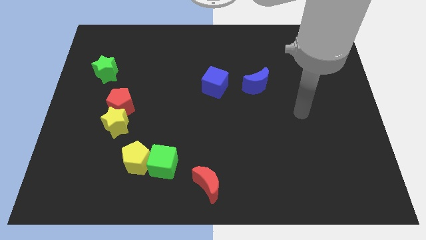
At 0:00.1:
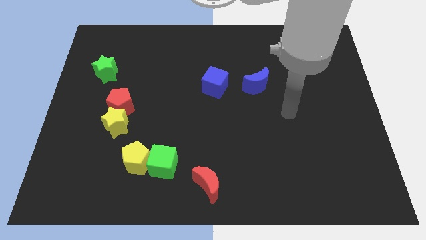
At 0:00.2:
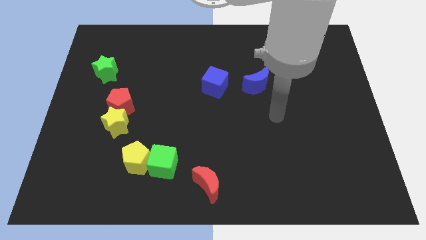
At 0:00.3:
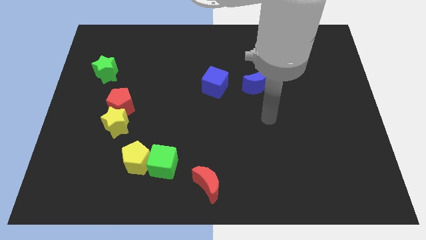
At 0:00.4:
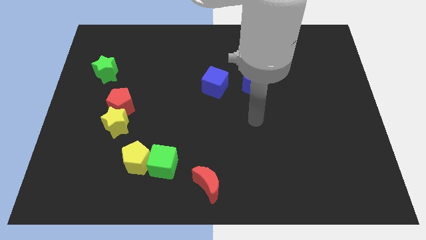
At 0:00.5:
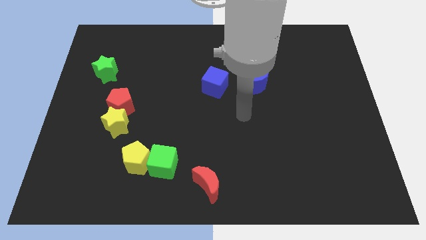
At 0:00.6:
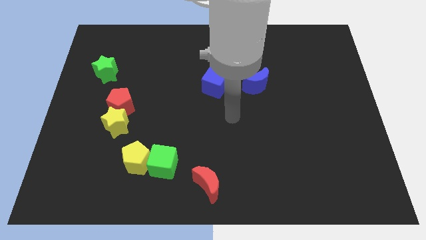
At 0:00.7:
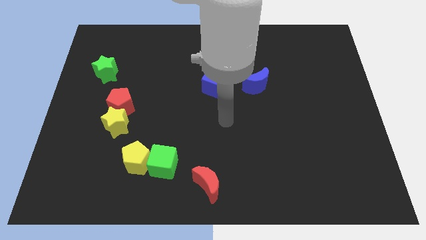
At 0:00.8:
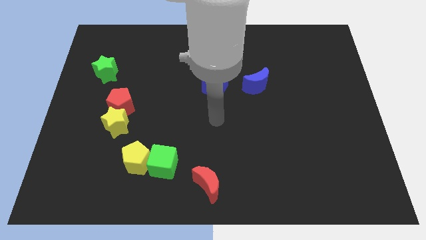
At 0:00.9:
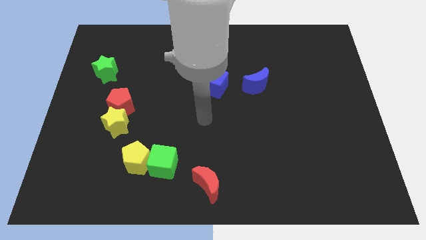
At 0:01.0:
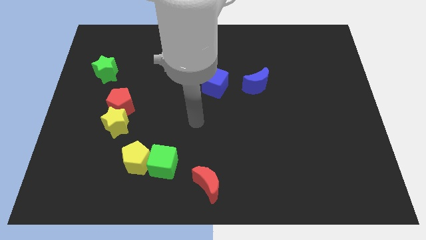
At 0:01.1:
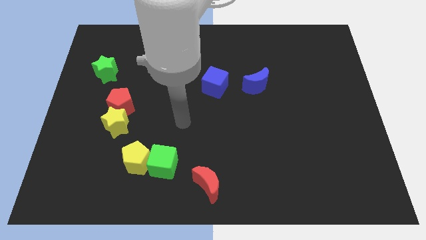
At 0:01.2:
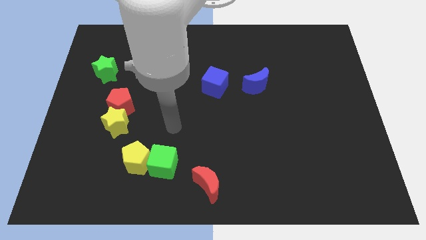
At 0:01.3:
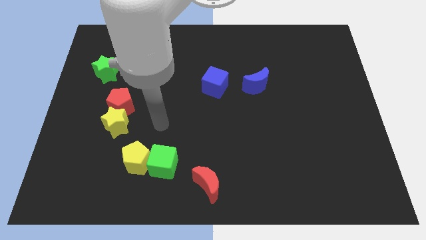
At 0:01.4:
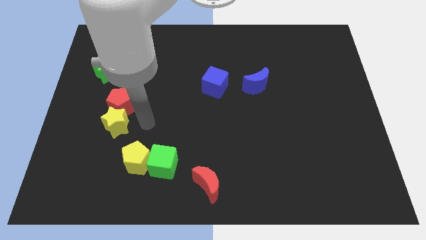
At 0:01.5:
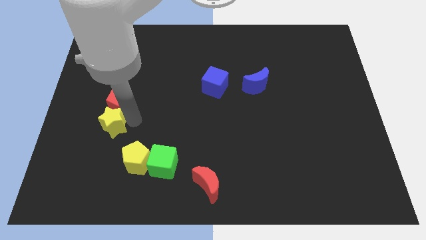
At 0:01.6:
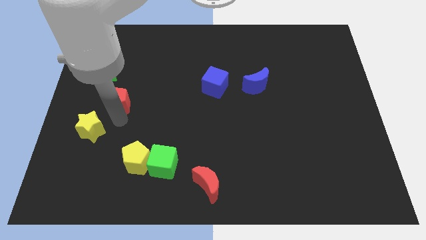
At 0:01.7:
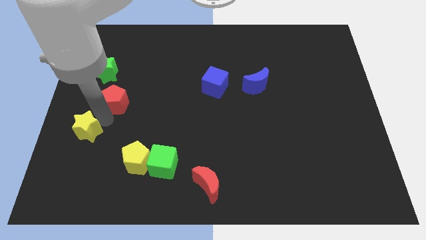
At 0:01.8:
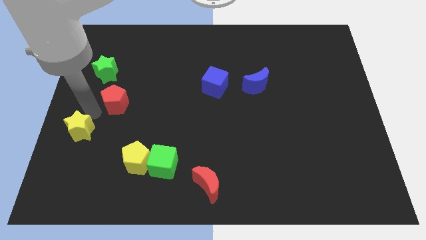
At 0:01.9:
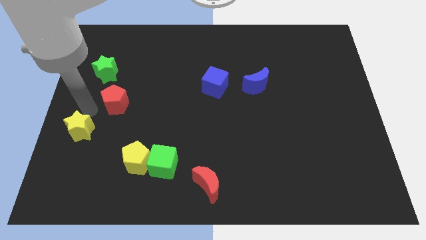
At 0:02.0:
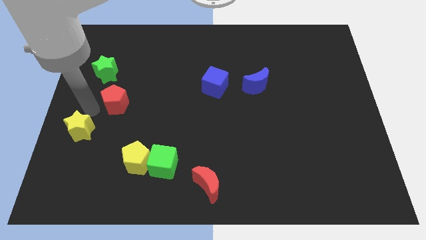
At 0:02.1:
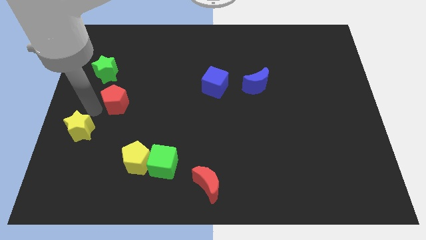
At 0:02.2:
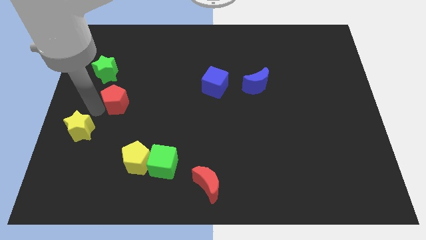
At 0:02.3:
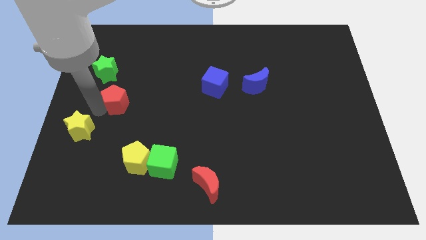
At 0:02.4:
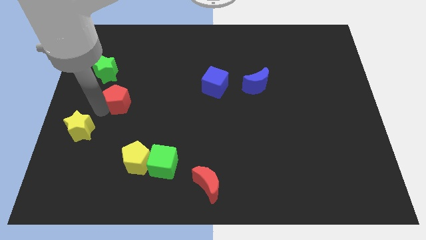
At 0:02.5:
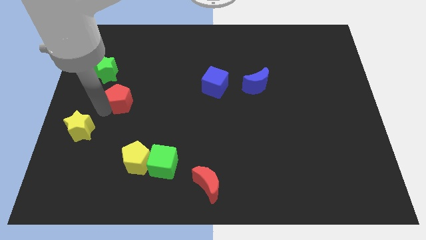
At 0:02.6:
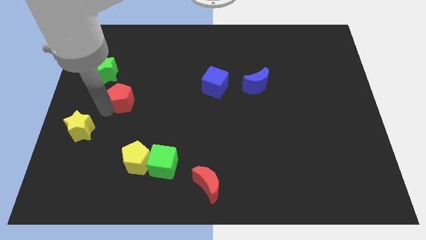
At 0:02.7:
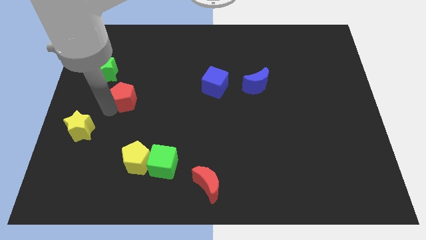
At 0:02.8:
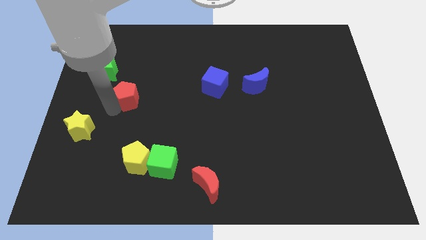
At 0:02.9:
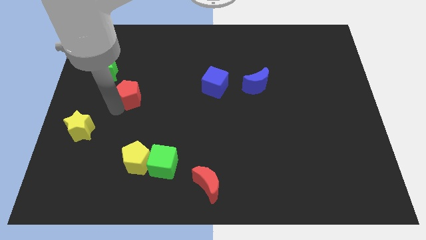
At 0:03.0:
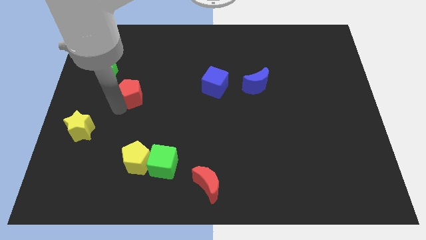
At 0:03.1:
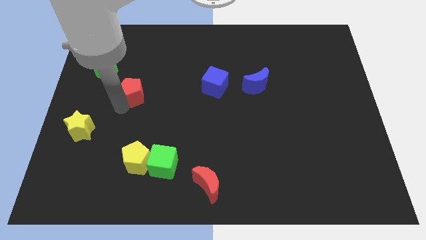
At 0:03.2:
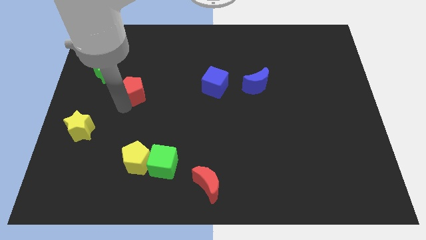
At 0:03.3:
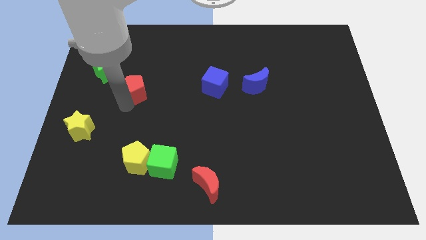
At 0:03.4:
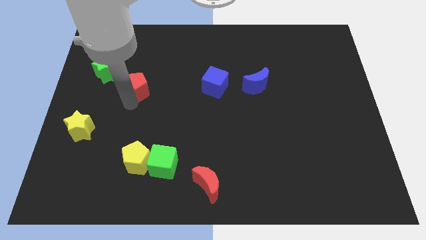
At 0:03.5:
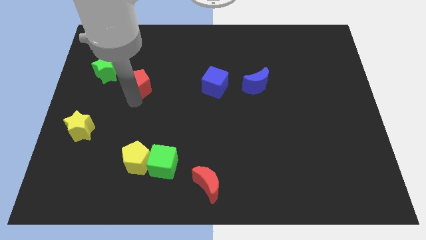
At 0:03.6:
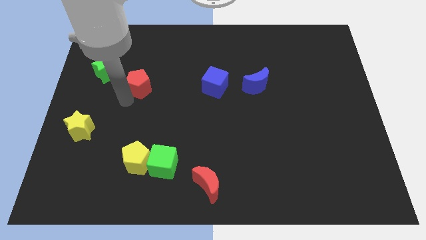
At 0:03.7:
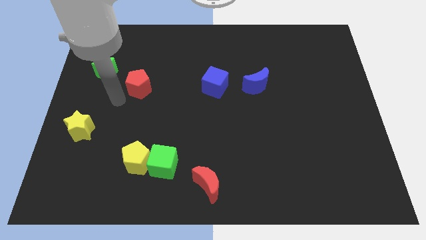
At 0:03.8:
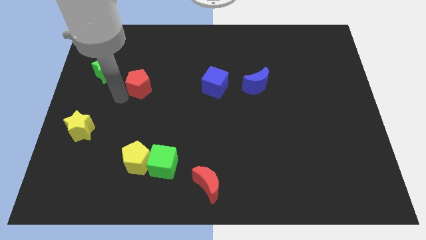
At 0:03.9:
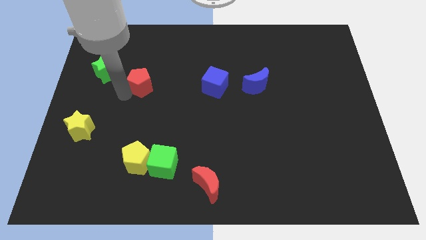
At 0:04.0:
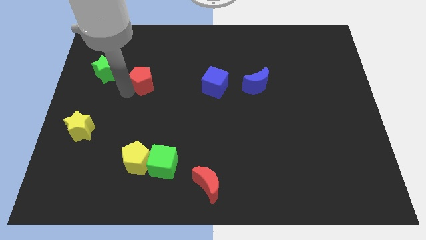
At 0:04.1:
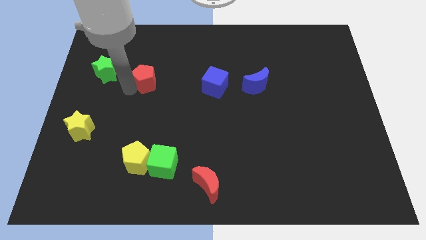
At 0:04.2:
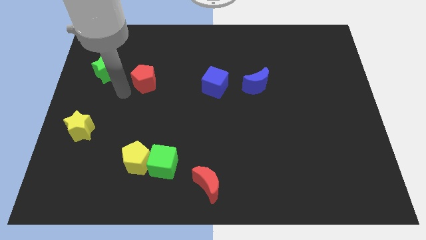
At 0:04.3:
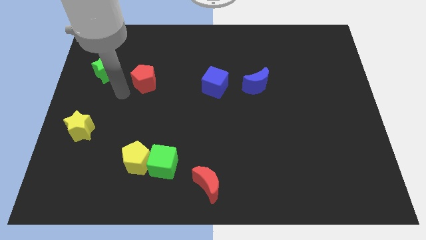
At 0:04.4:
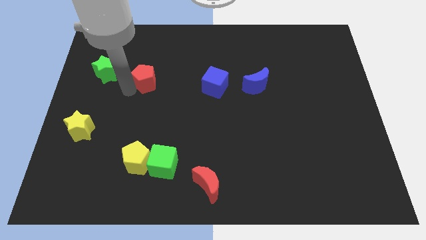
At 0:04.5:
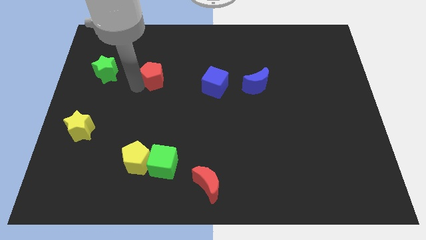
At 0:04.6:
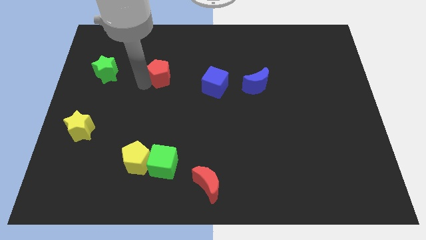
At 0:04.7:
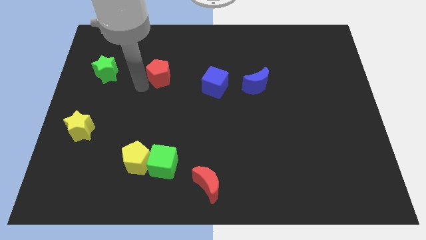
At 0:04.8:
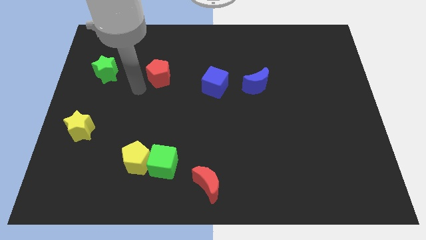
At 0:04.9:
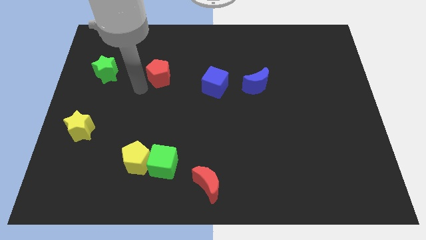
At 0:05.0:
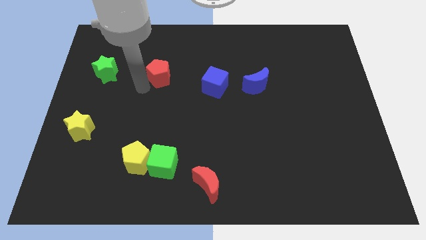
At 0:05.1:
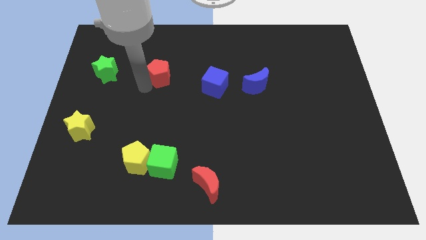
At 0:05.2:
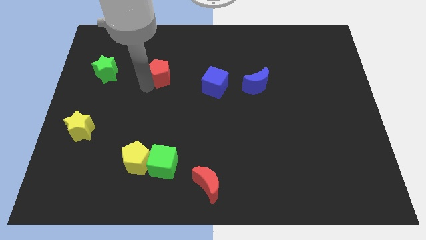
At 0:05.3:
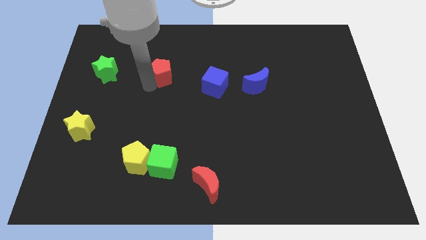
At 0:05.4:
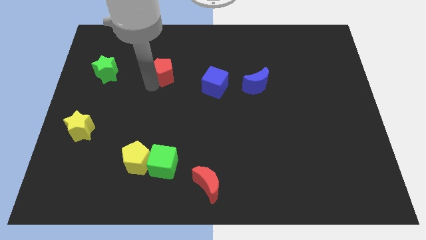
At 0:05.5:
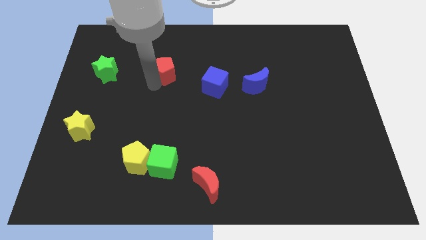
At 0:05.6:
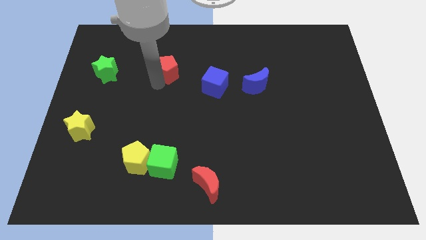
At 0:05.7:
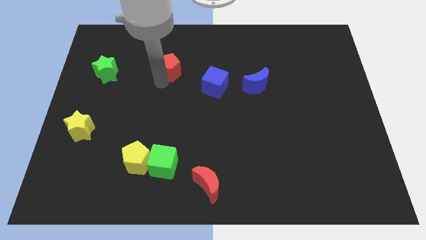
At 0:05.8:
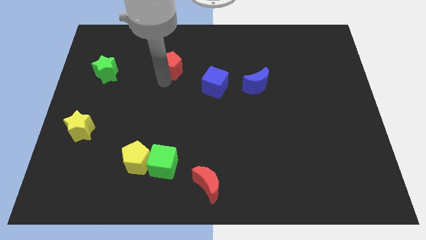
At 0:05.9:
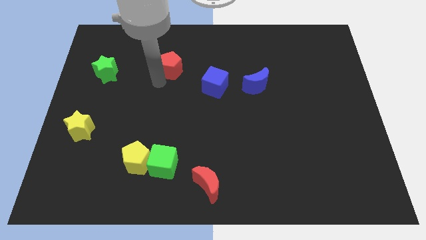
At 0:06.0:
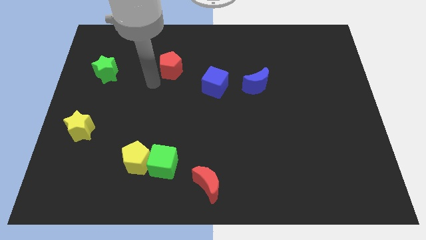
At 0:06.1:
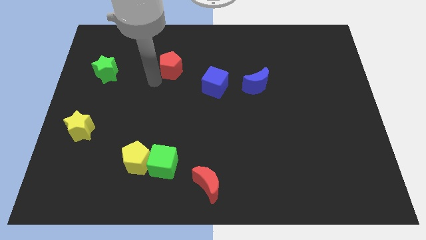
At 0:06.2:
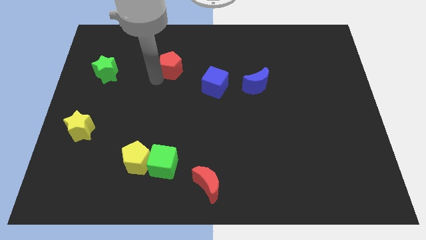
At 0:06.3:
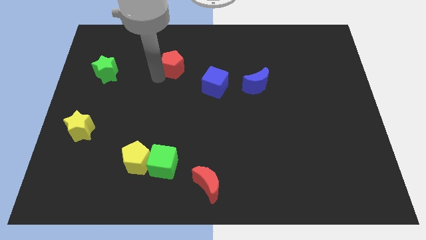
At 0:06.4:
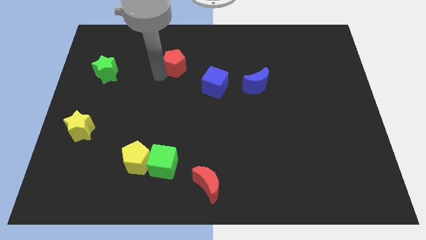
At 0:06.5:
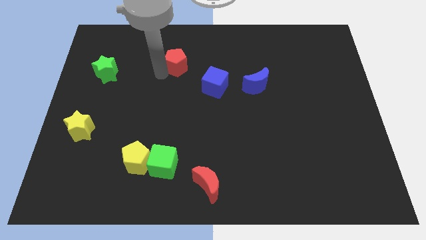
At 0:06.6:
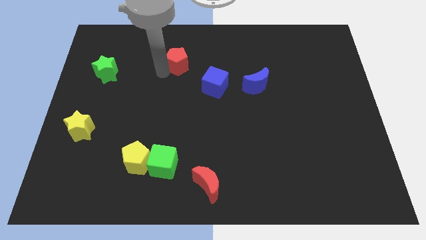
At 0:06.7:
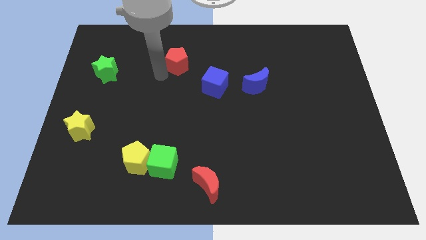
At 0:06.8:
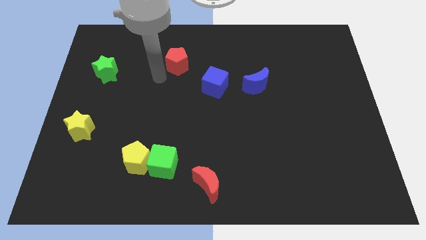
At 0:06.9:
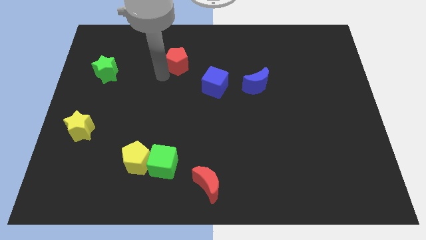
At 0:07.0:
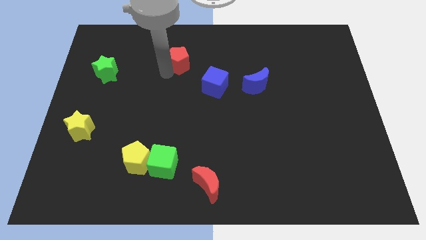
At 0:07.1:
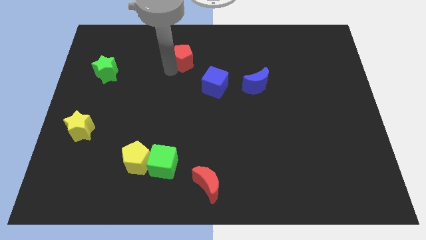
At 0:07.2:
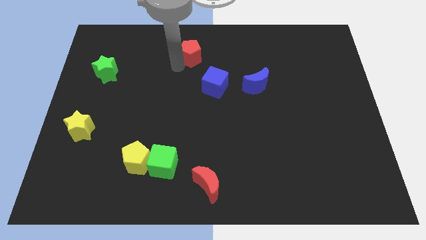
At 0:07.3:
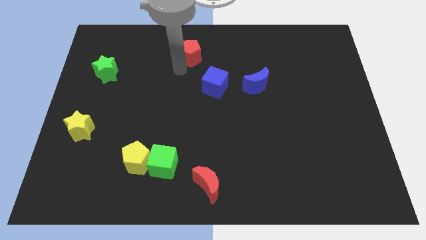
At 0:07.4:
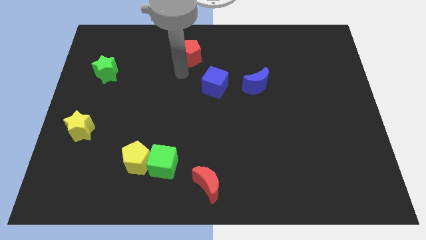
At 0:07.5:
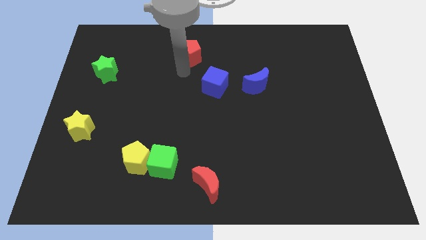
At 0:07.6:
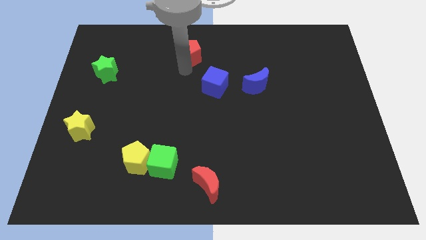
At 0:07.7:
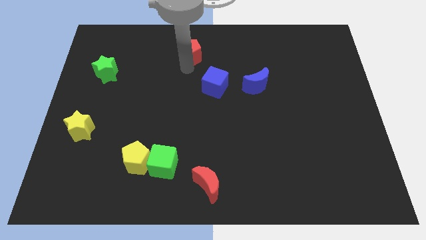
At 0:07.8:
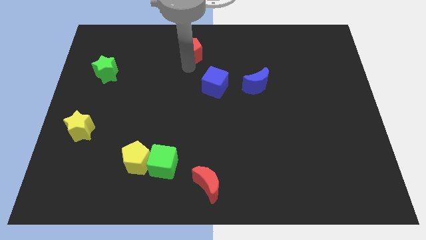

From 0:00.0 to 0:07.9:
put the red pentagon to the top side
